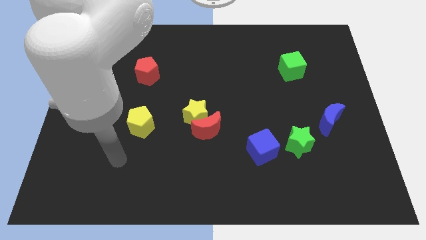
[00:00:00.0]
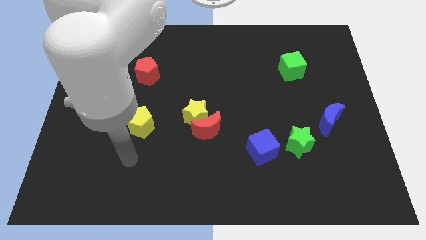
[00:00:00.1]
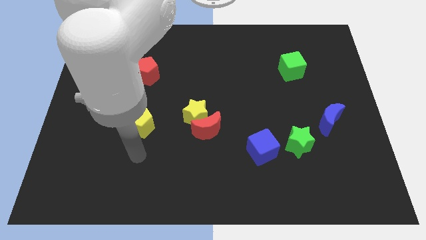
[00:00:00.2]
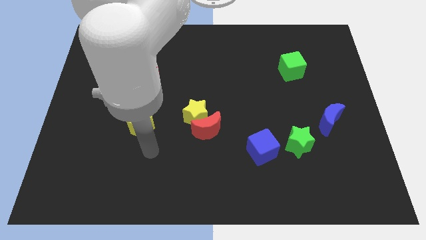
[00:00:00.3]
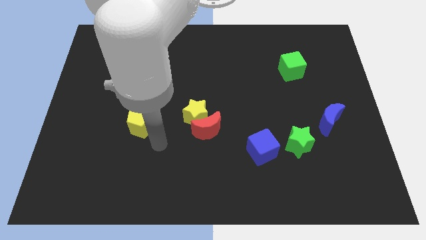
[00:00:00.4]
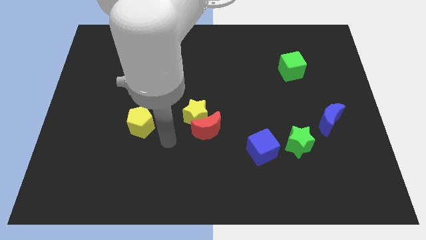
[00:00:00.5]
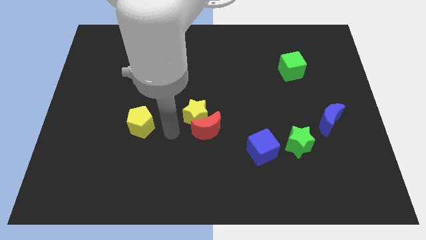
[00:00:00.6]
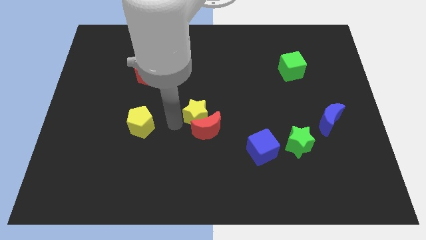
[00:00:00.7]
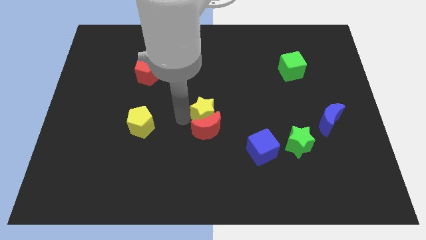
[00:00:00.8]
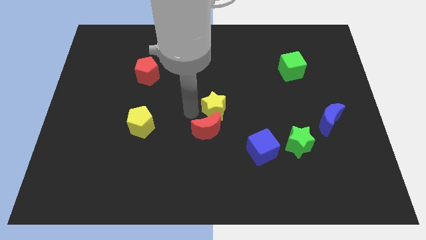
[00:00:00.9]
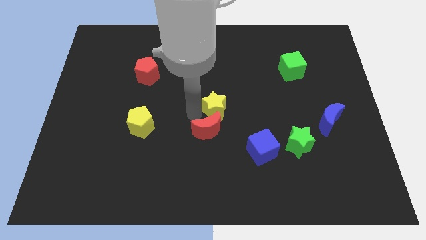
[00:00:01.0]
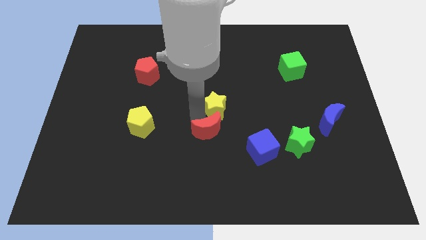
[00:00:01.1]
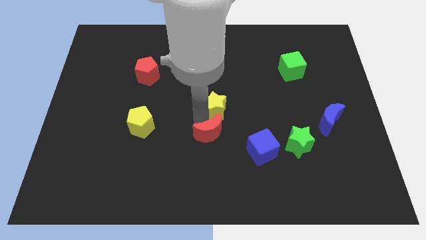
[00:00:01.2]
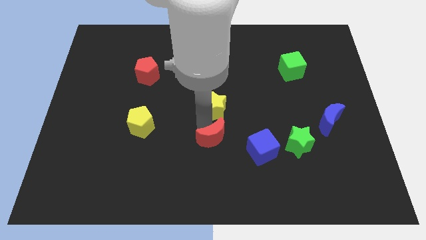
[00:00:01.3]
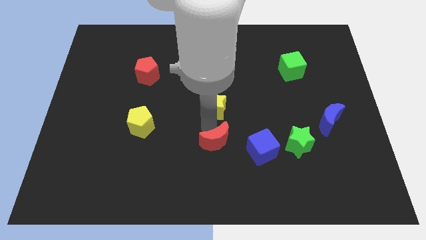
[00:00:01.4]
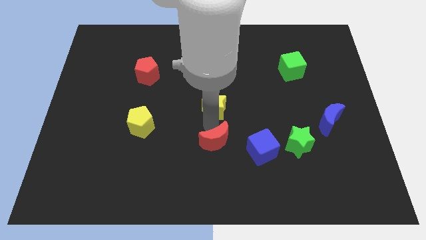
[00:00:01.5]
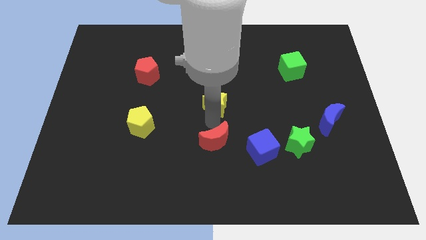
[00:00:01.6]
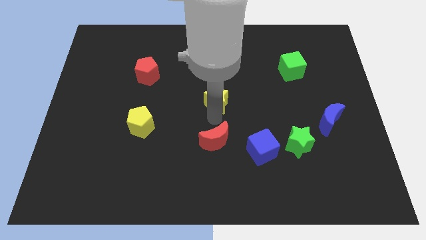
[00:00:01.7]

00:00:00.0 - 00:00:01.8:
move the red moon away from the yellow star

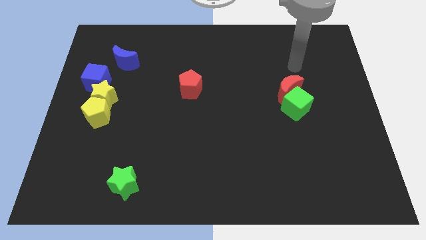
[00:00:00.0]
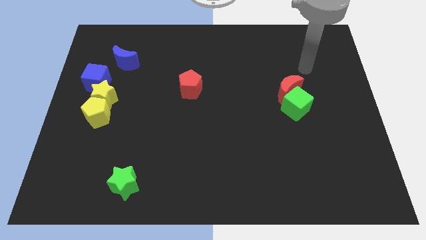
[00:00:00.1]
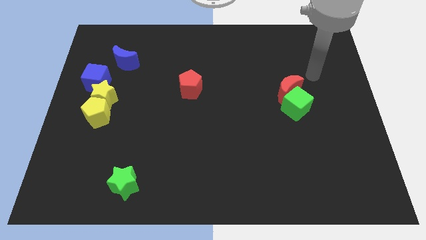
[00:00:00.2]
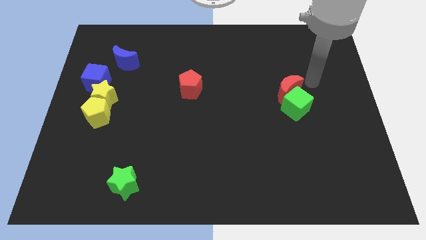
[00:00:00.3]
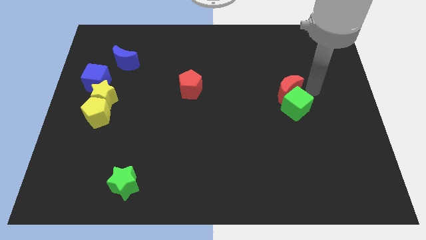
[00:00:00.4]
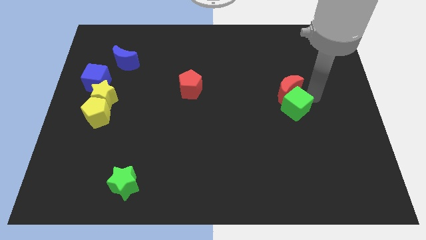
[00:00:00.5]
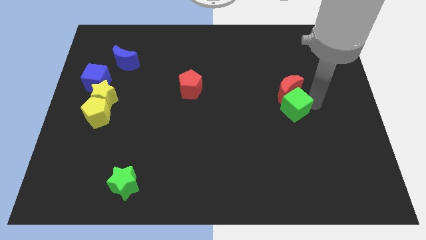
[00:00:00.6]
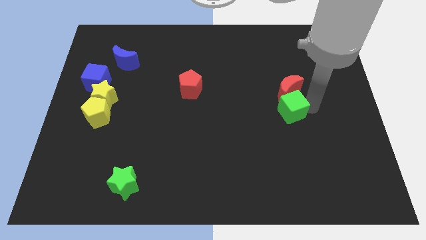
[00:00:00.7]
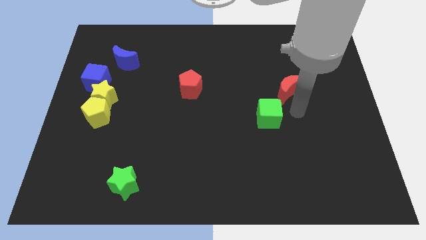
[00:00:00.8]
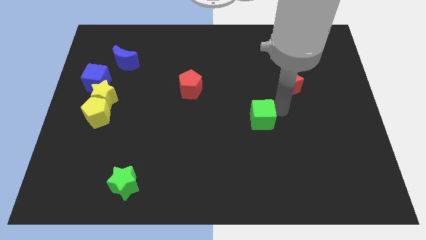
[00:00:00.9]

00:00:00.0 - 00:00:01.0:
separate the red moon from the green cube

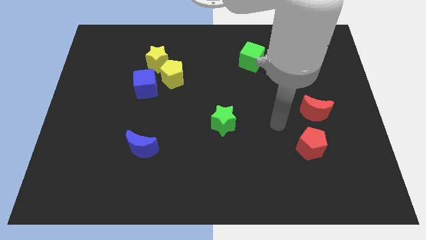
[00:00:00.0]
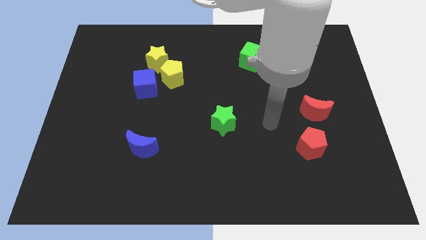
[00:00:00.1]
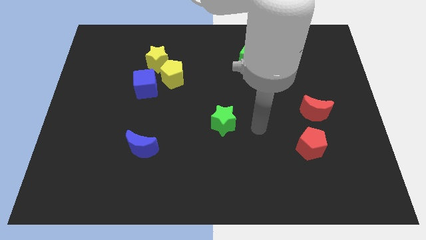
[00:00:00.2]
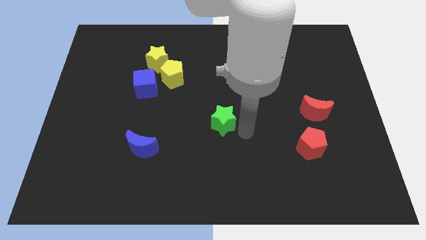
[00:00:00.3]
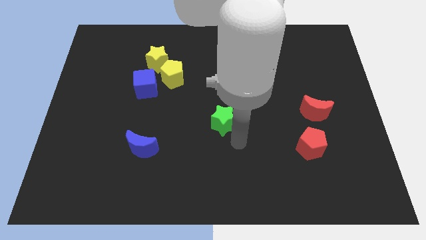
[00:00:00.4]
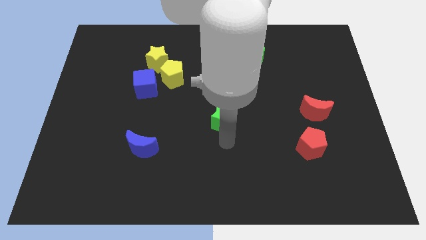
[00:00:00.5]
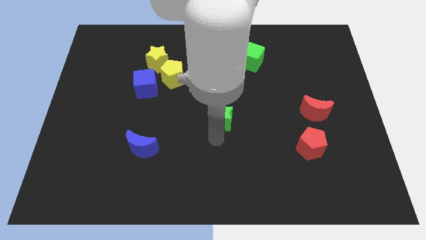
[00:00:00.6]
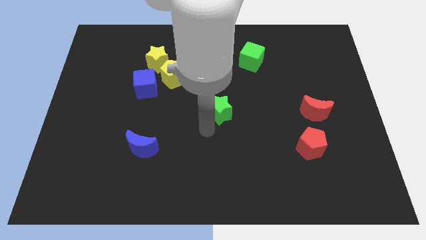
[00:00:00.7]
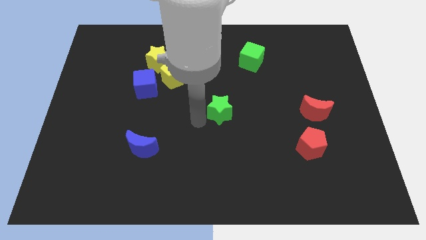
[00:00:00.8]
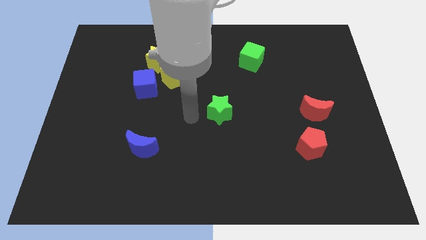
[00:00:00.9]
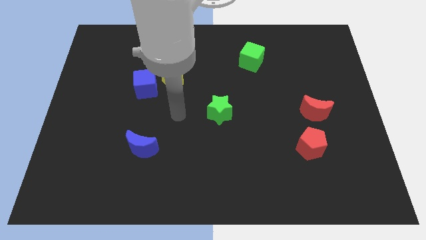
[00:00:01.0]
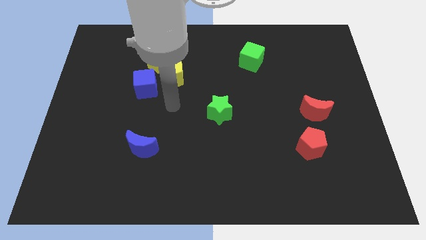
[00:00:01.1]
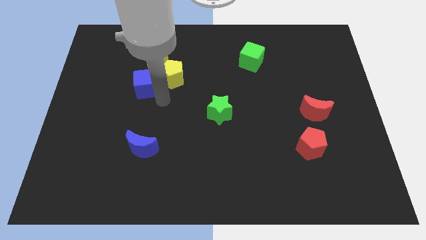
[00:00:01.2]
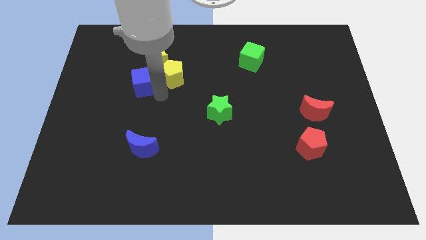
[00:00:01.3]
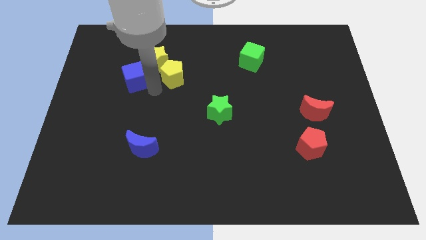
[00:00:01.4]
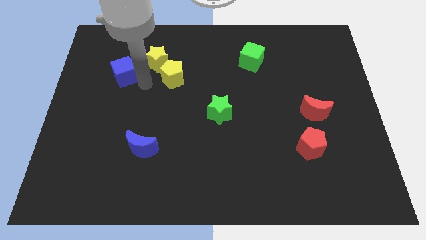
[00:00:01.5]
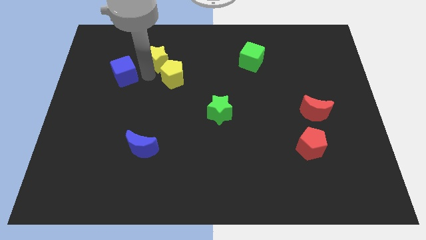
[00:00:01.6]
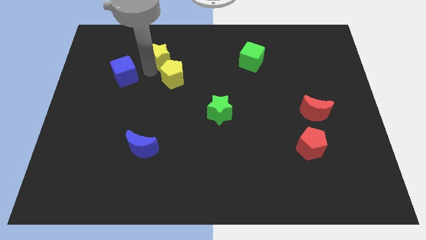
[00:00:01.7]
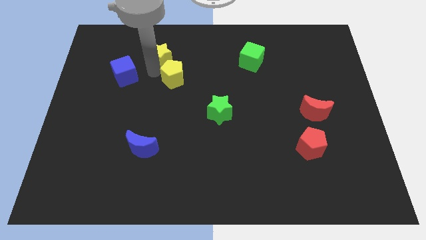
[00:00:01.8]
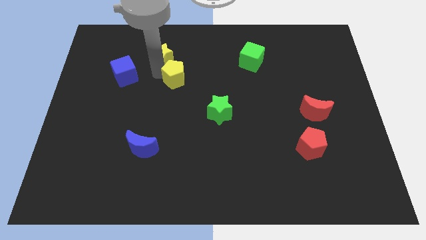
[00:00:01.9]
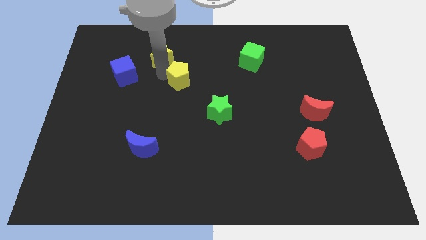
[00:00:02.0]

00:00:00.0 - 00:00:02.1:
separate the yellow pentagon from the yellow star and blue cube

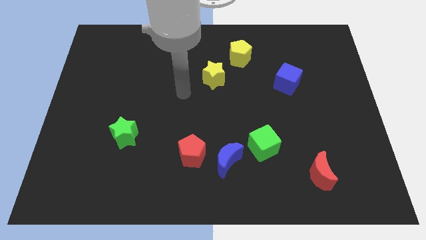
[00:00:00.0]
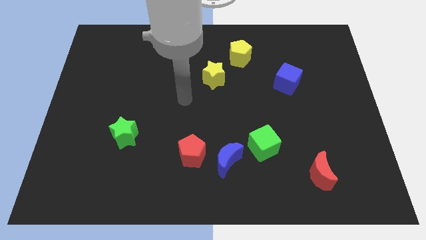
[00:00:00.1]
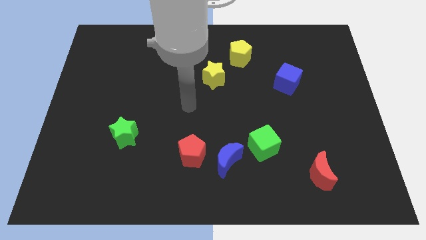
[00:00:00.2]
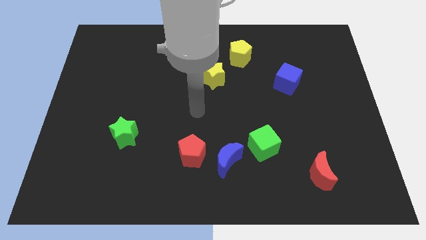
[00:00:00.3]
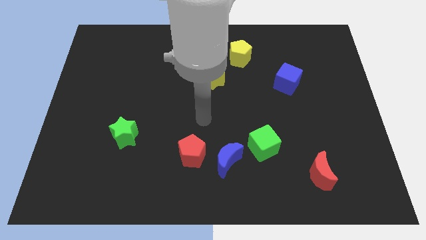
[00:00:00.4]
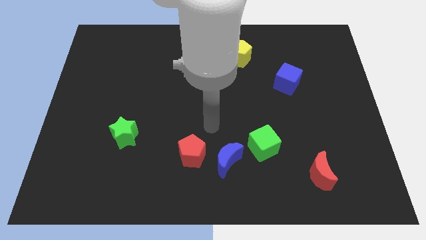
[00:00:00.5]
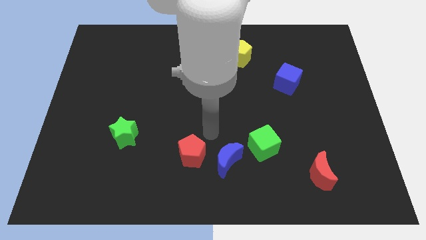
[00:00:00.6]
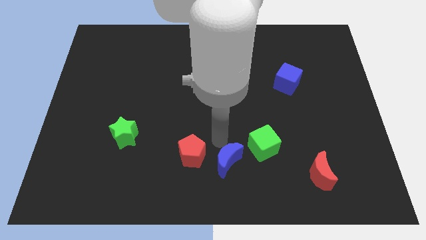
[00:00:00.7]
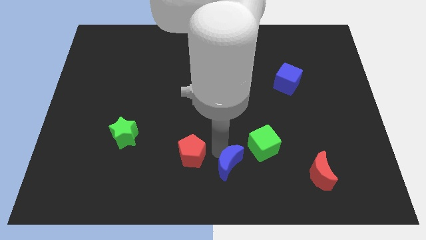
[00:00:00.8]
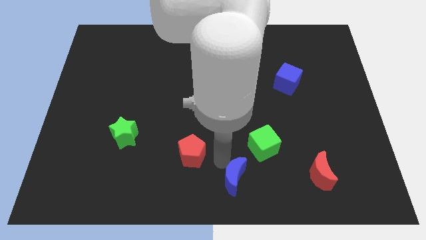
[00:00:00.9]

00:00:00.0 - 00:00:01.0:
separate the red pentagon from the blue moon

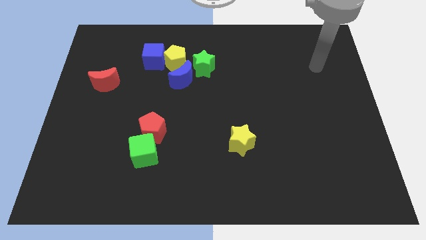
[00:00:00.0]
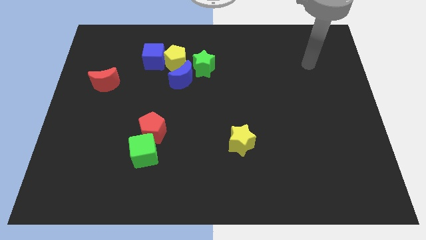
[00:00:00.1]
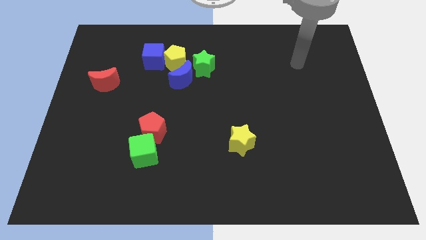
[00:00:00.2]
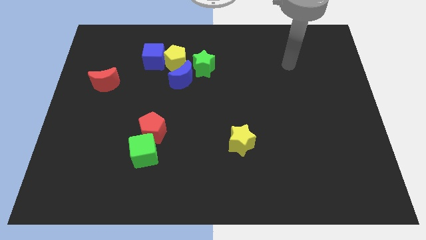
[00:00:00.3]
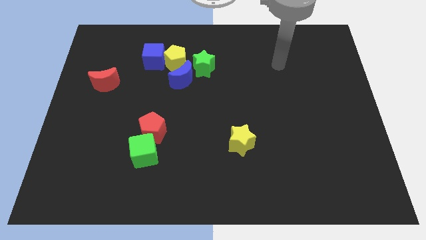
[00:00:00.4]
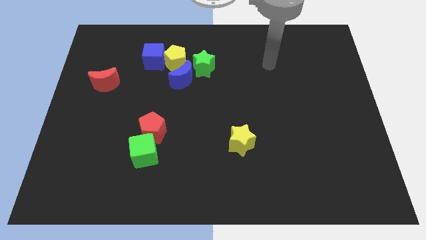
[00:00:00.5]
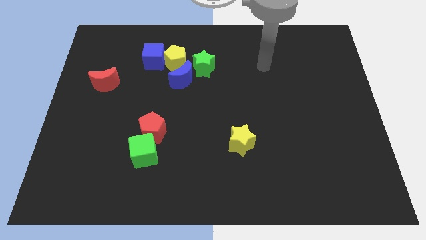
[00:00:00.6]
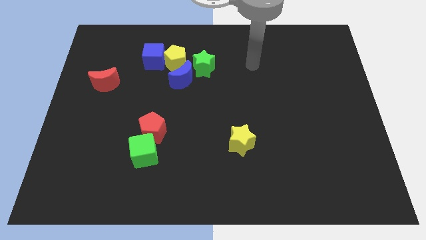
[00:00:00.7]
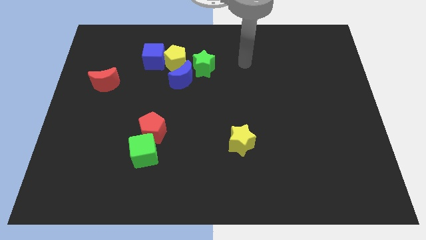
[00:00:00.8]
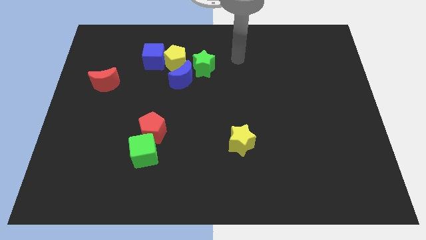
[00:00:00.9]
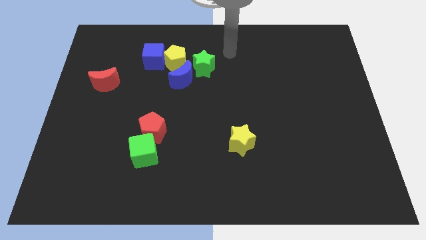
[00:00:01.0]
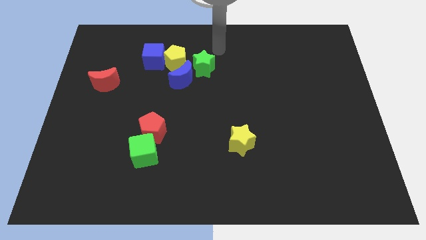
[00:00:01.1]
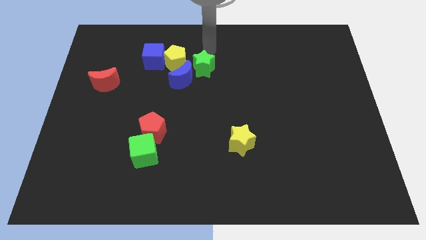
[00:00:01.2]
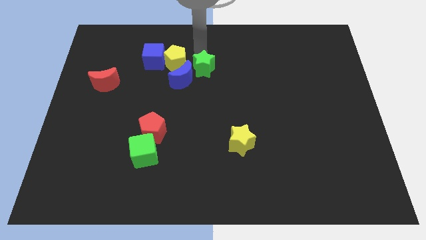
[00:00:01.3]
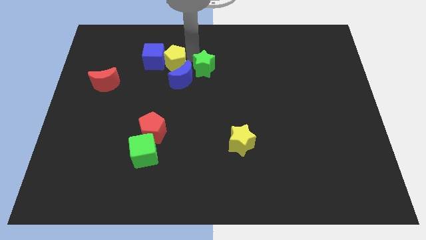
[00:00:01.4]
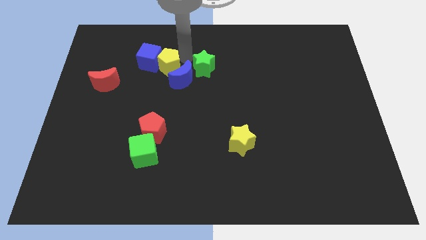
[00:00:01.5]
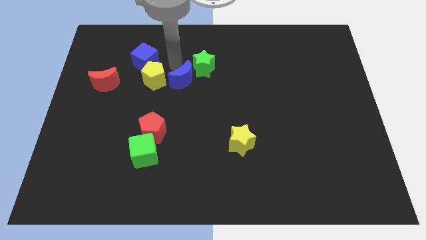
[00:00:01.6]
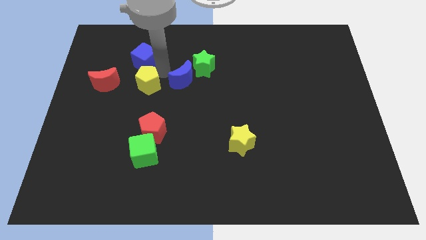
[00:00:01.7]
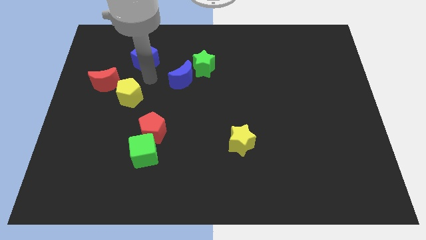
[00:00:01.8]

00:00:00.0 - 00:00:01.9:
separate the blue cube from the yellow pentagon

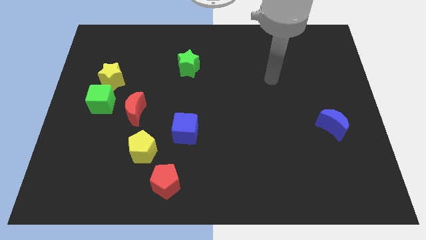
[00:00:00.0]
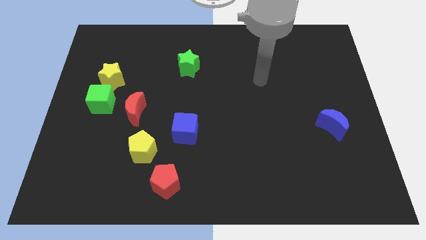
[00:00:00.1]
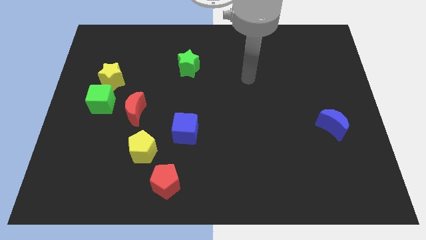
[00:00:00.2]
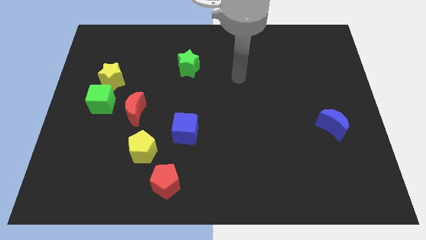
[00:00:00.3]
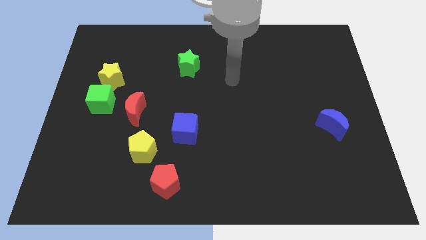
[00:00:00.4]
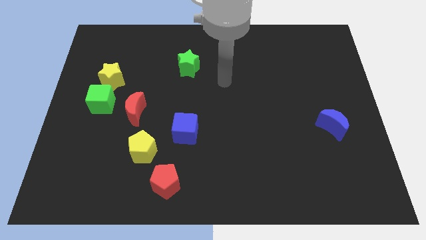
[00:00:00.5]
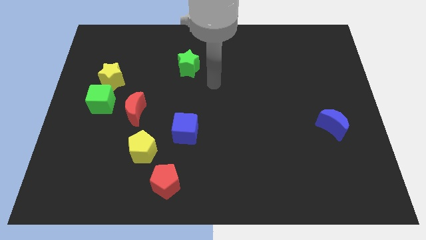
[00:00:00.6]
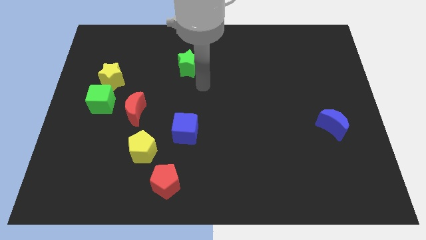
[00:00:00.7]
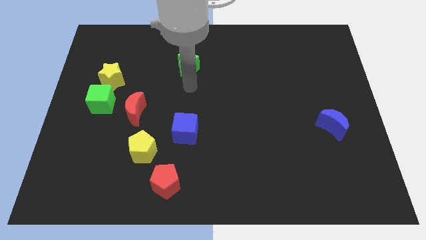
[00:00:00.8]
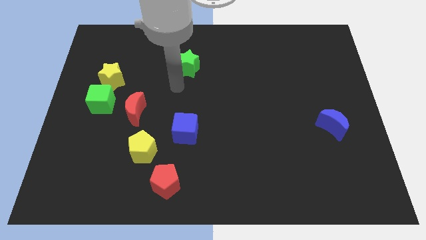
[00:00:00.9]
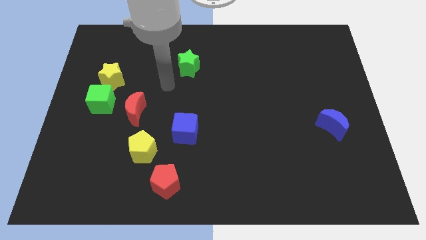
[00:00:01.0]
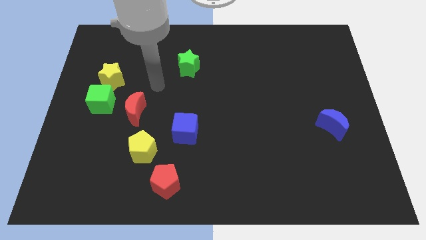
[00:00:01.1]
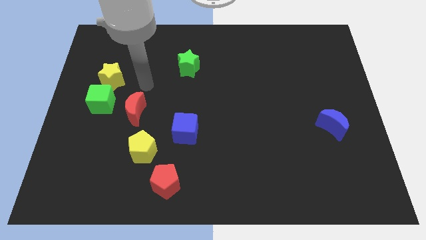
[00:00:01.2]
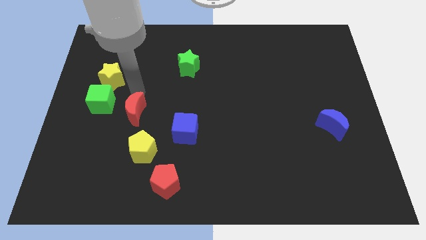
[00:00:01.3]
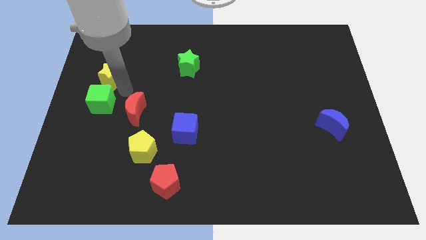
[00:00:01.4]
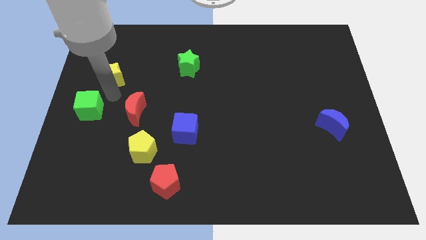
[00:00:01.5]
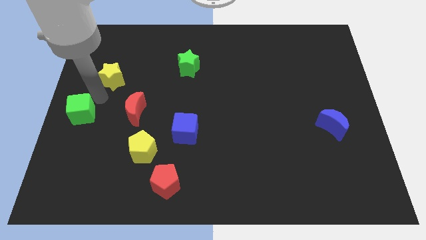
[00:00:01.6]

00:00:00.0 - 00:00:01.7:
separate the yellow star from the green cube
